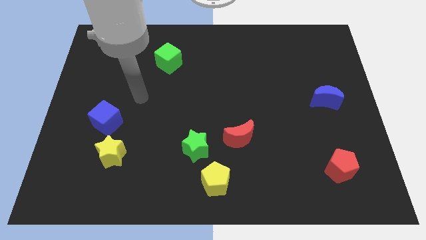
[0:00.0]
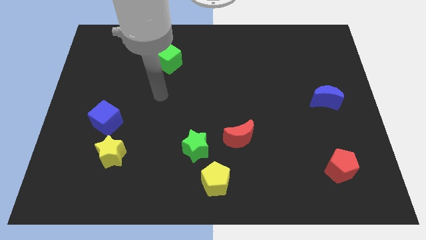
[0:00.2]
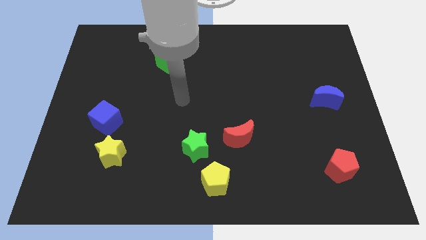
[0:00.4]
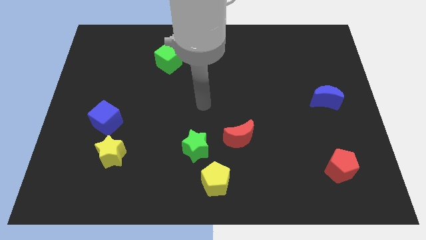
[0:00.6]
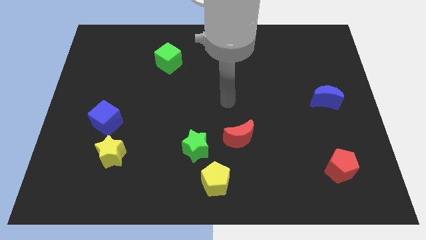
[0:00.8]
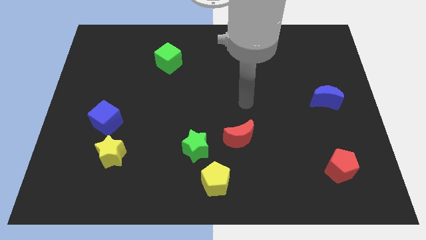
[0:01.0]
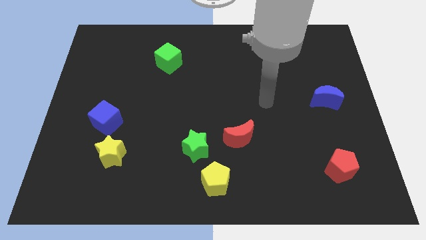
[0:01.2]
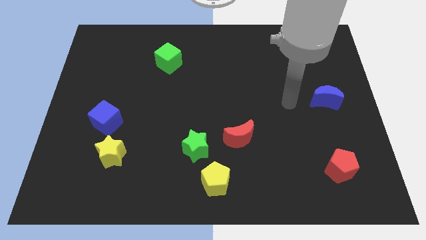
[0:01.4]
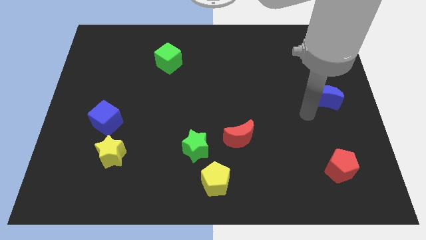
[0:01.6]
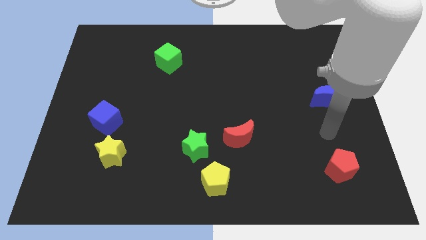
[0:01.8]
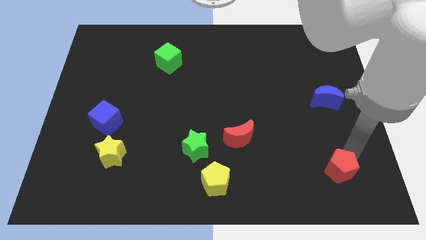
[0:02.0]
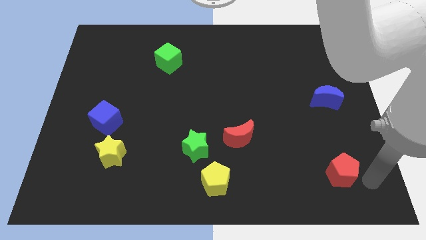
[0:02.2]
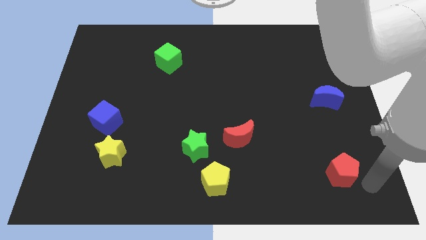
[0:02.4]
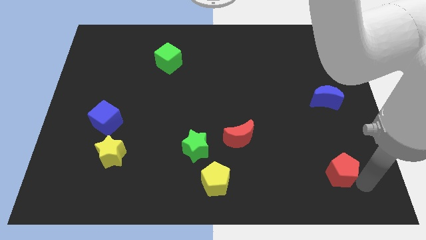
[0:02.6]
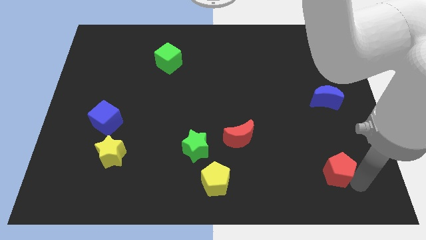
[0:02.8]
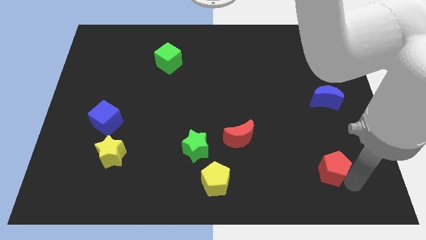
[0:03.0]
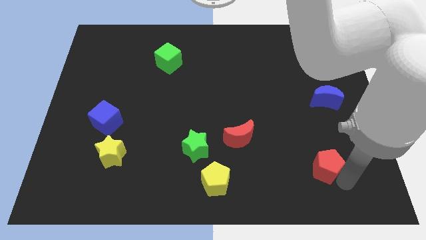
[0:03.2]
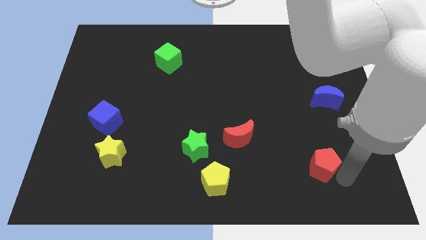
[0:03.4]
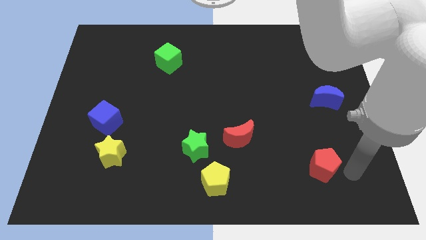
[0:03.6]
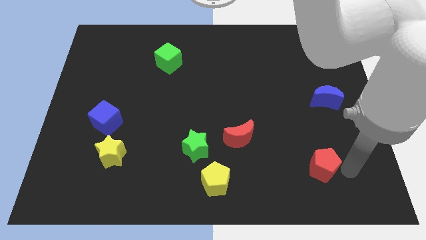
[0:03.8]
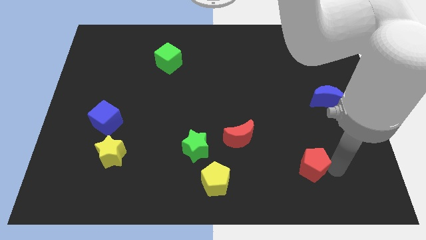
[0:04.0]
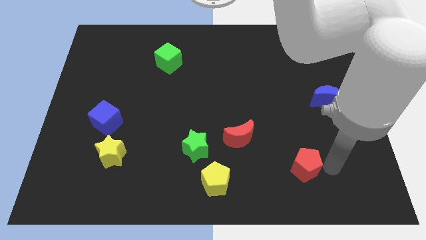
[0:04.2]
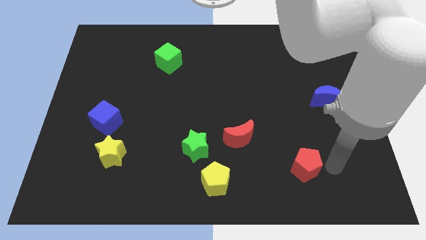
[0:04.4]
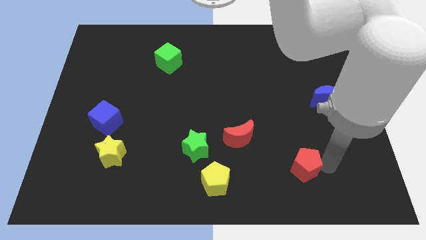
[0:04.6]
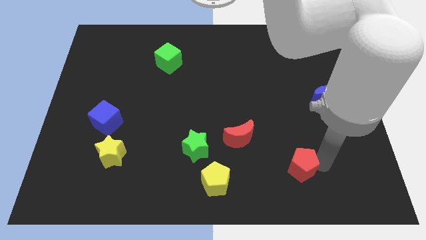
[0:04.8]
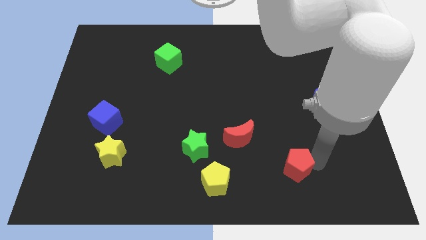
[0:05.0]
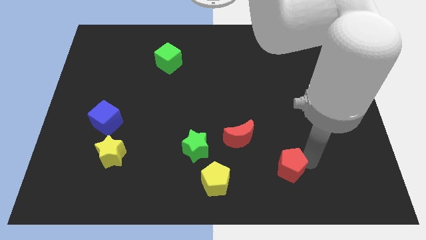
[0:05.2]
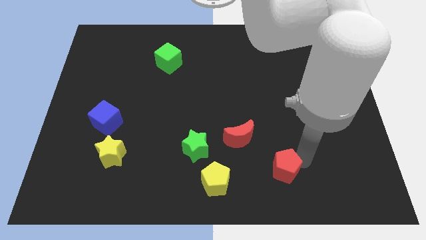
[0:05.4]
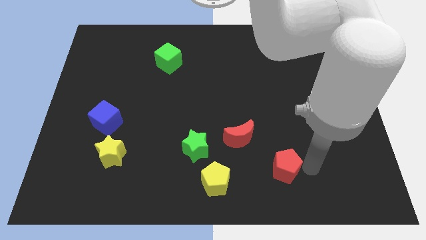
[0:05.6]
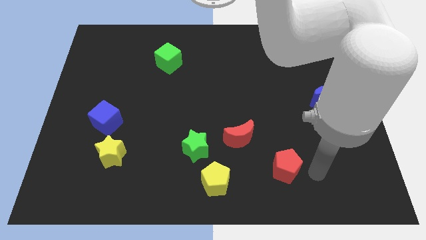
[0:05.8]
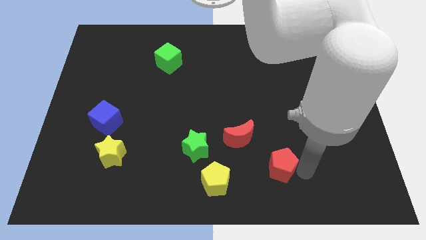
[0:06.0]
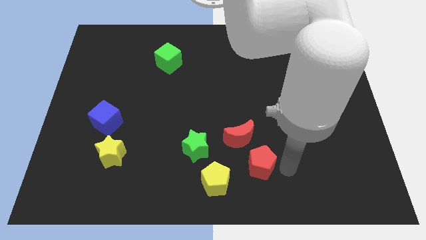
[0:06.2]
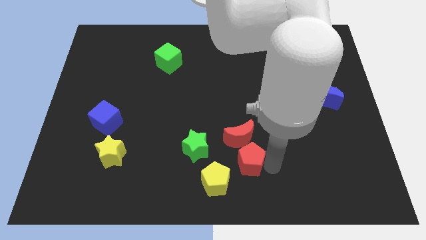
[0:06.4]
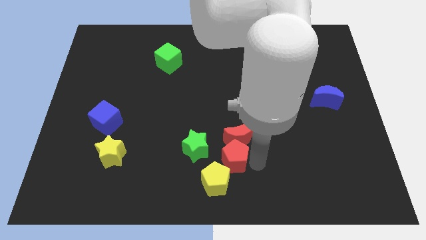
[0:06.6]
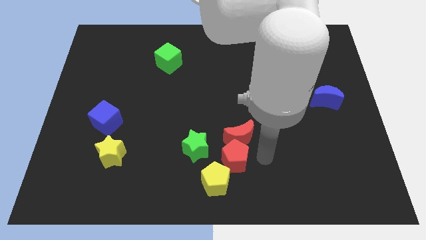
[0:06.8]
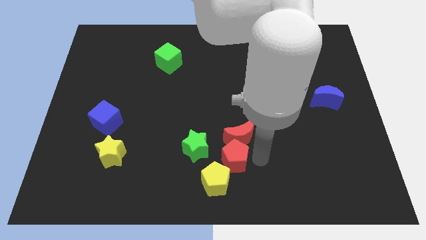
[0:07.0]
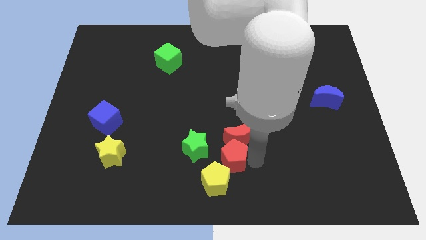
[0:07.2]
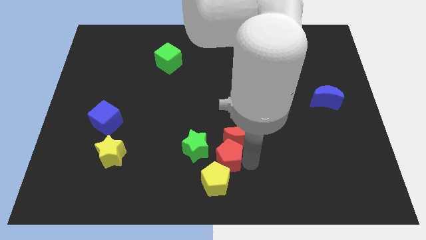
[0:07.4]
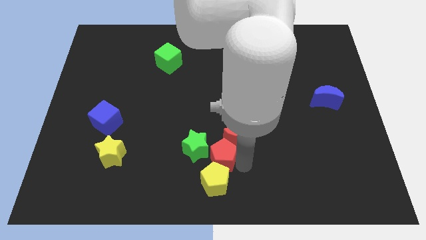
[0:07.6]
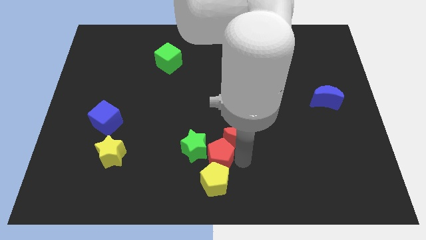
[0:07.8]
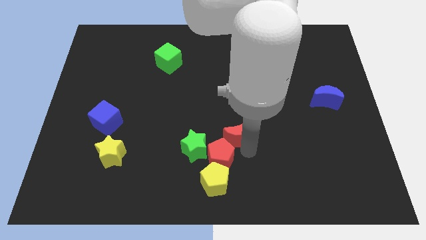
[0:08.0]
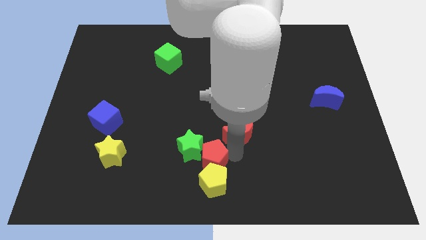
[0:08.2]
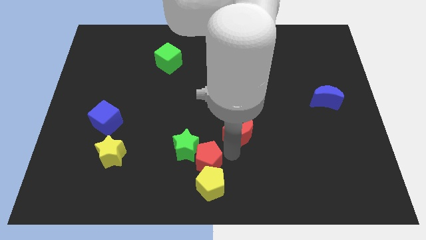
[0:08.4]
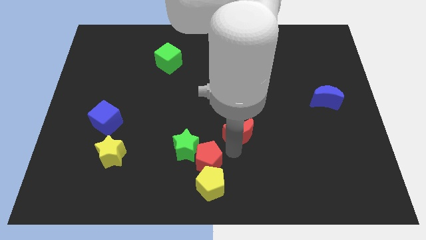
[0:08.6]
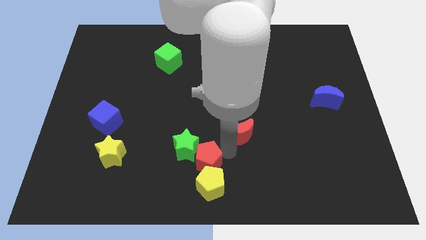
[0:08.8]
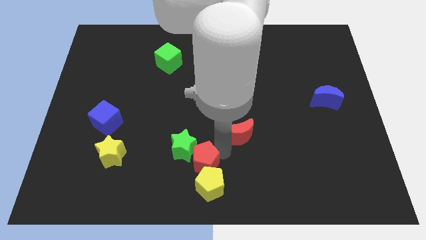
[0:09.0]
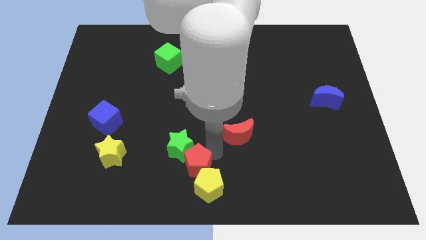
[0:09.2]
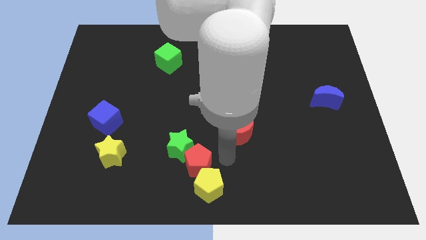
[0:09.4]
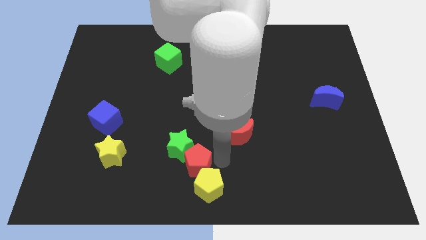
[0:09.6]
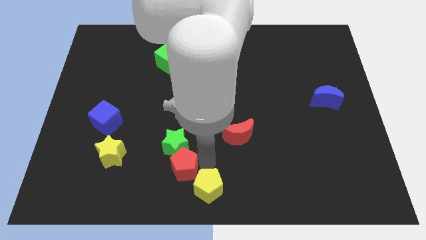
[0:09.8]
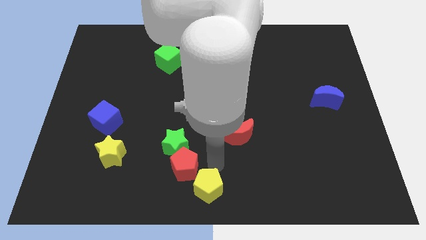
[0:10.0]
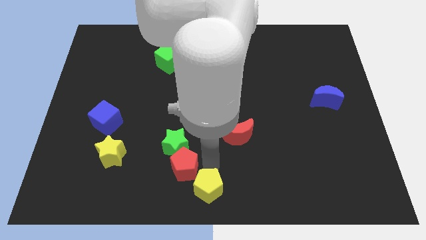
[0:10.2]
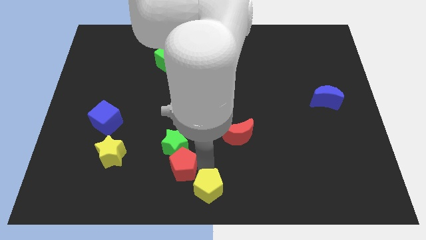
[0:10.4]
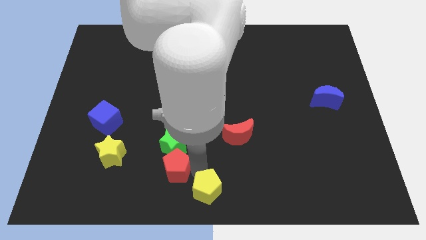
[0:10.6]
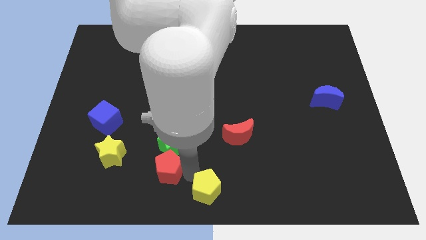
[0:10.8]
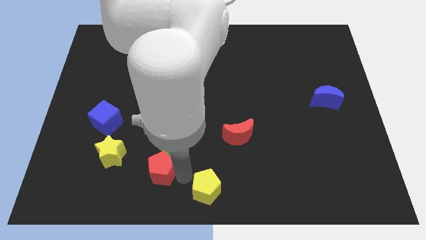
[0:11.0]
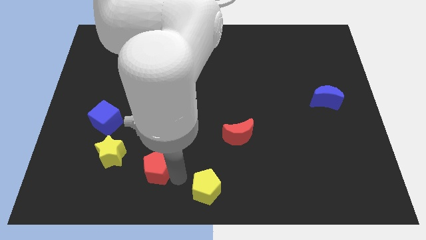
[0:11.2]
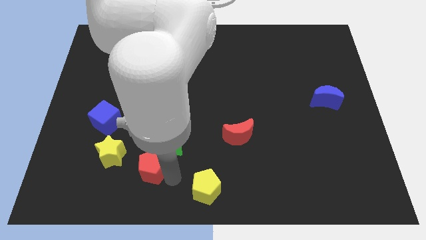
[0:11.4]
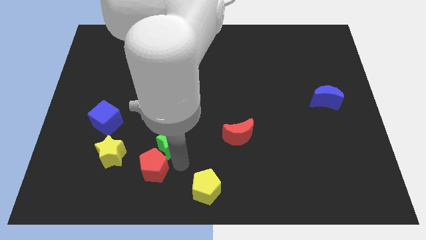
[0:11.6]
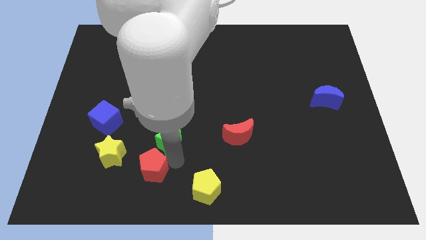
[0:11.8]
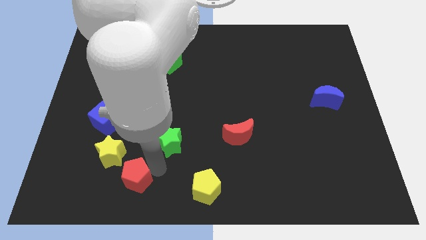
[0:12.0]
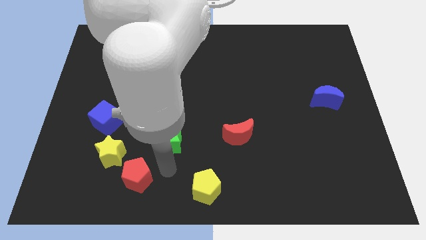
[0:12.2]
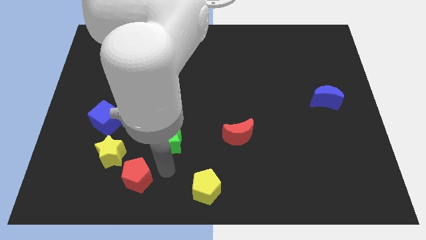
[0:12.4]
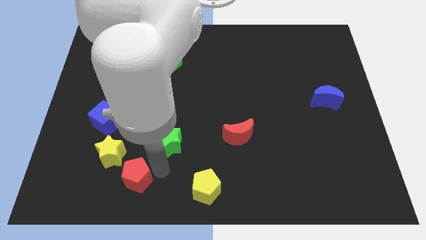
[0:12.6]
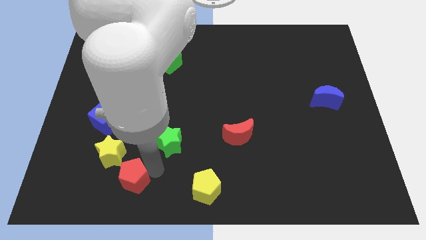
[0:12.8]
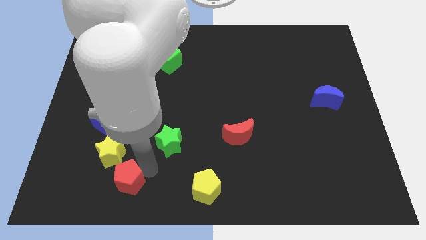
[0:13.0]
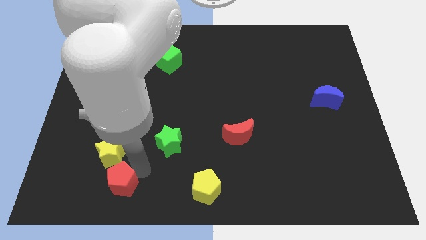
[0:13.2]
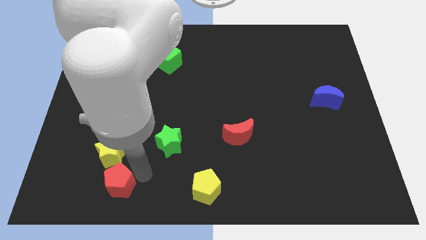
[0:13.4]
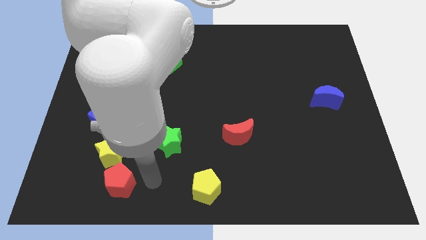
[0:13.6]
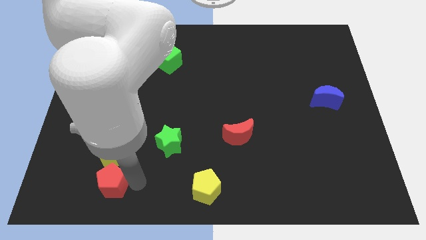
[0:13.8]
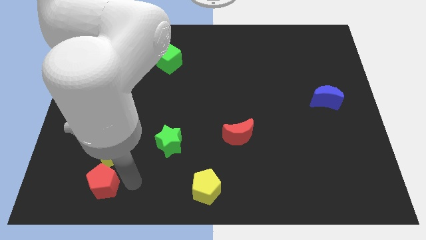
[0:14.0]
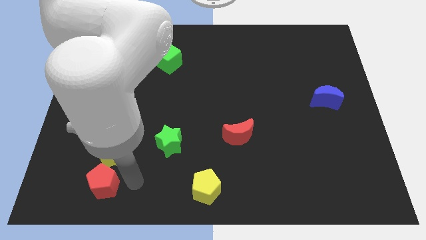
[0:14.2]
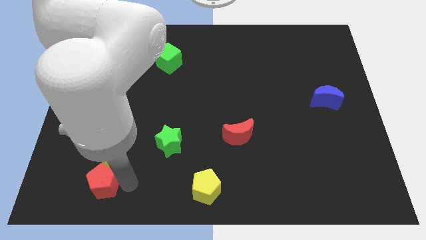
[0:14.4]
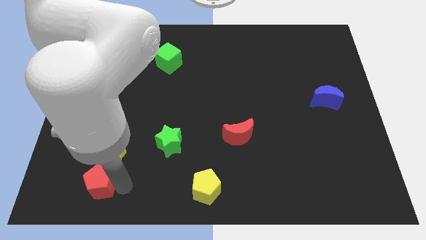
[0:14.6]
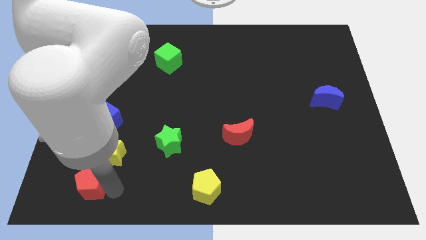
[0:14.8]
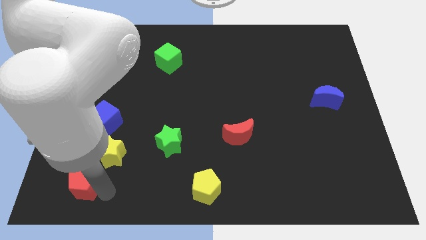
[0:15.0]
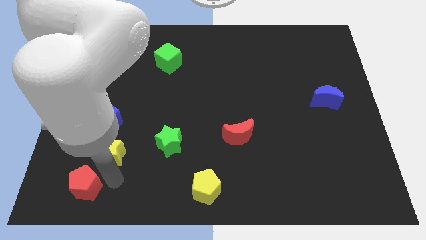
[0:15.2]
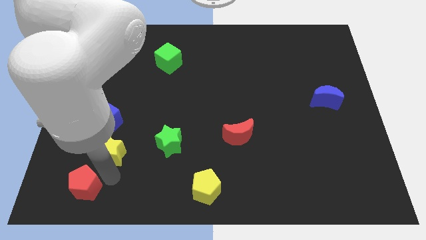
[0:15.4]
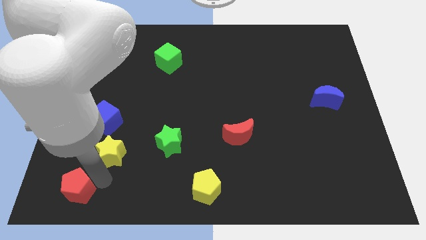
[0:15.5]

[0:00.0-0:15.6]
put the red pentagon to the bottom left of the board
